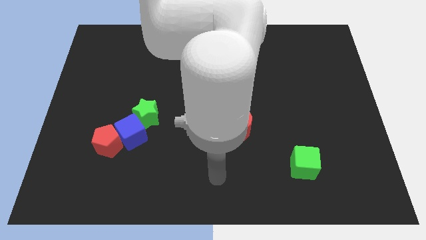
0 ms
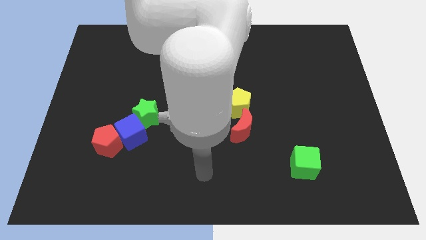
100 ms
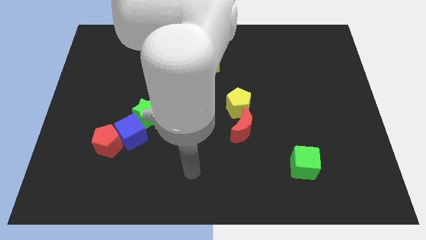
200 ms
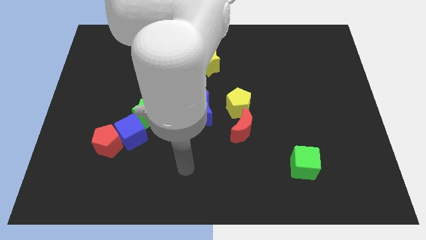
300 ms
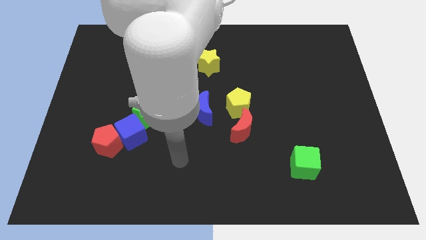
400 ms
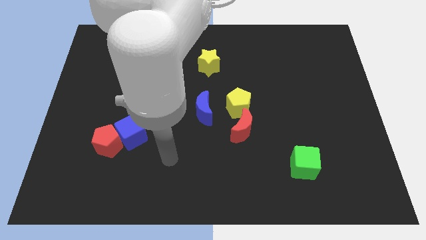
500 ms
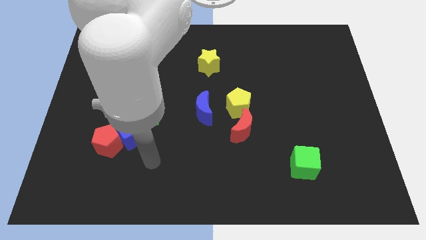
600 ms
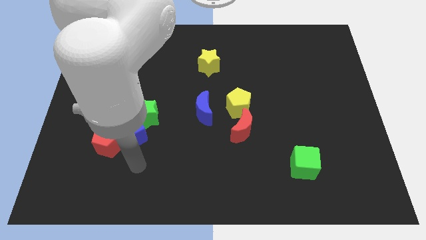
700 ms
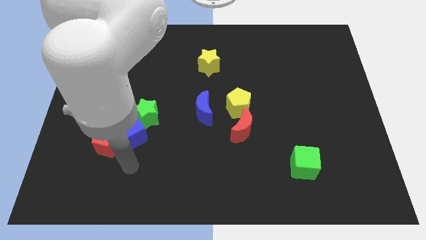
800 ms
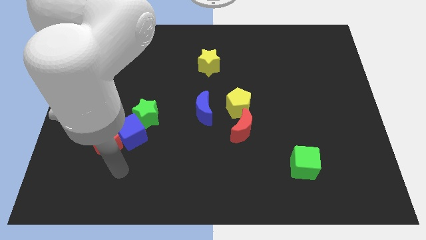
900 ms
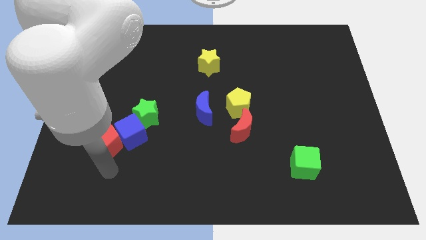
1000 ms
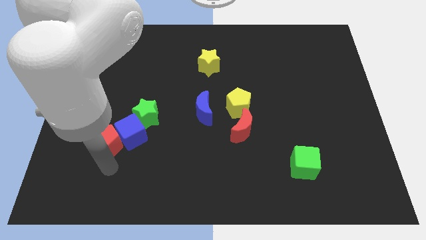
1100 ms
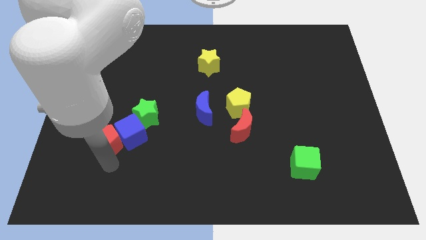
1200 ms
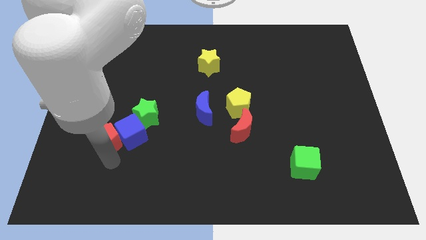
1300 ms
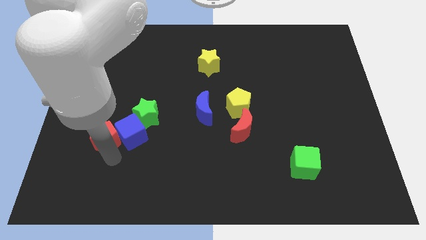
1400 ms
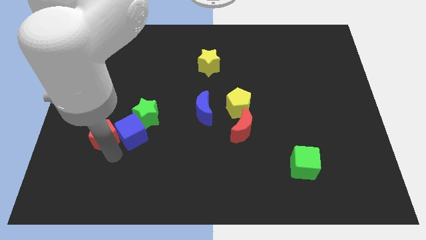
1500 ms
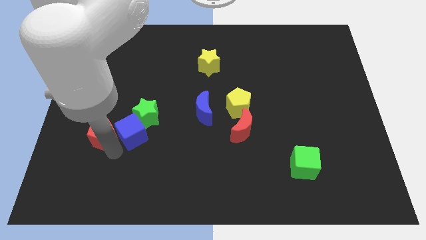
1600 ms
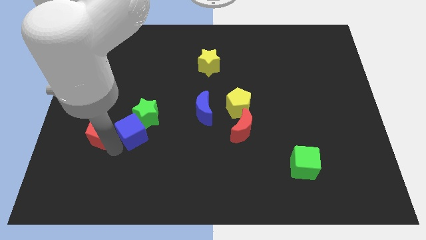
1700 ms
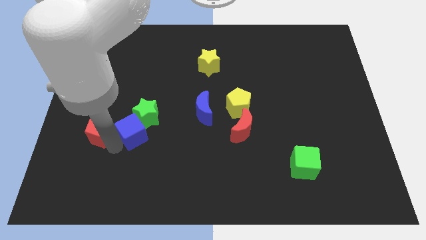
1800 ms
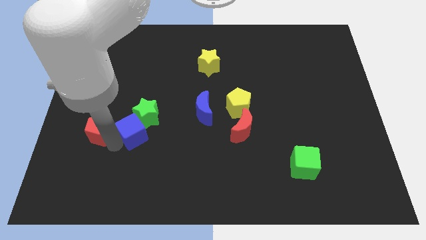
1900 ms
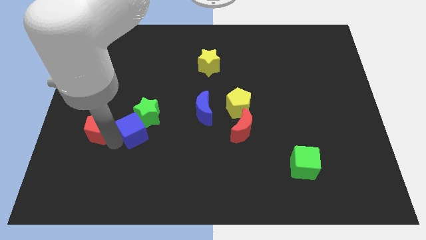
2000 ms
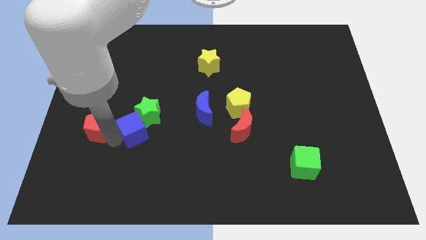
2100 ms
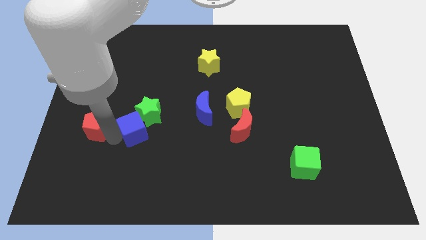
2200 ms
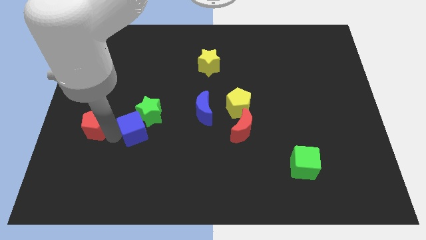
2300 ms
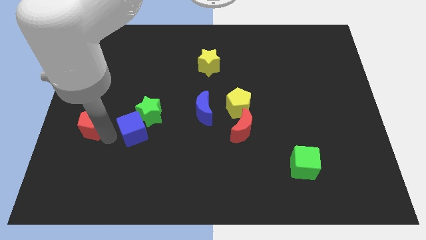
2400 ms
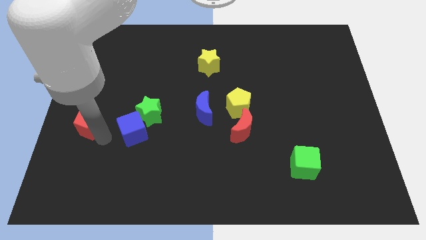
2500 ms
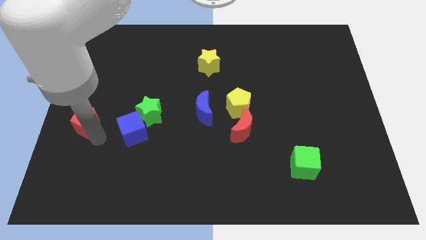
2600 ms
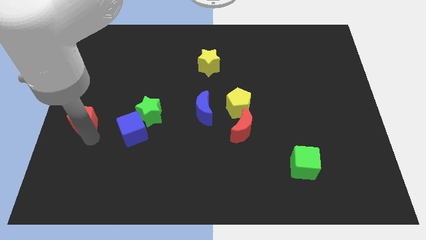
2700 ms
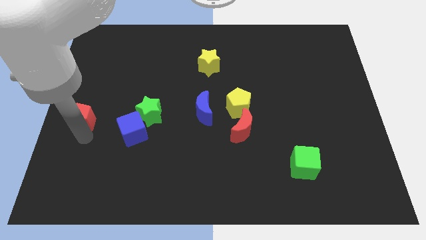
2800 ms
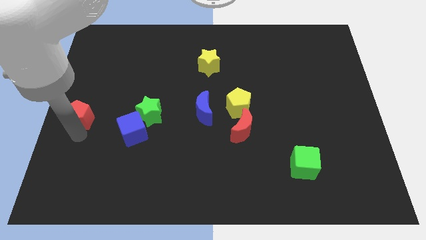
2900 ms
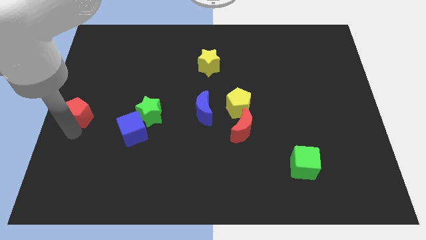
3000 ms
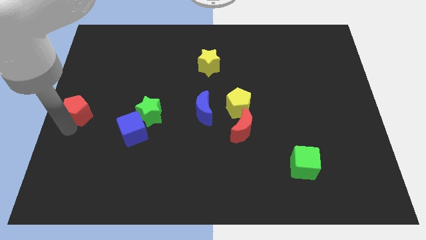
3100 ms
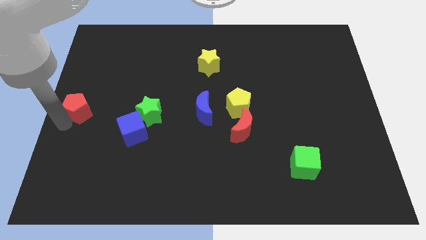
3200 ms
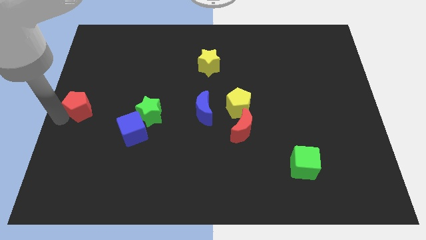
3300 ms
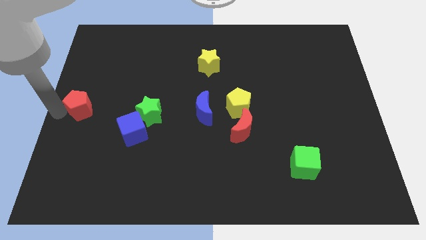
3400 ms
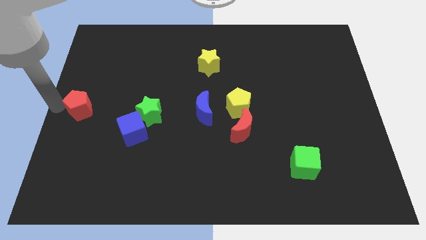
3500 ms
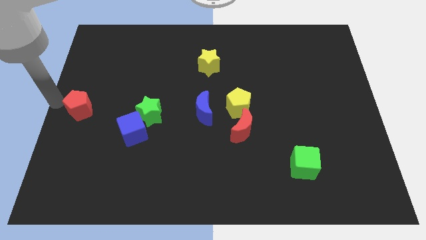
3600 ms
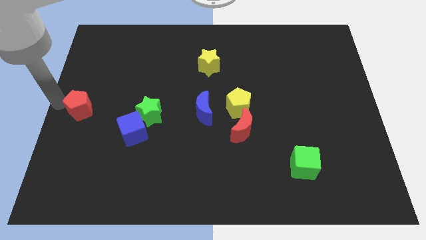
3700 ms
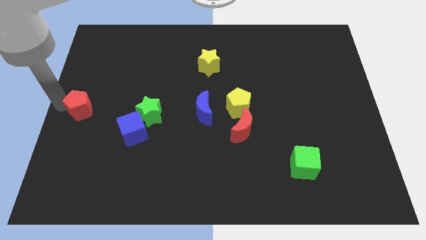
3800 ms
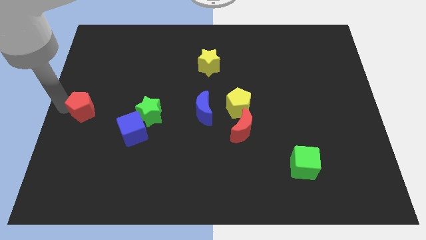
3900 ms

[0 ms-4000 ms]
move the red pentagon upwards a little

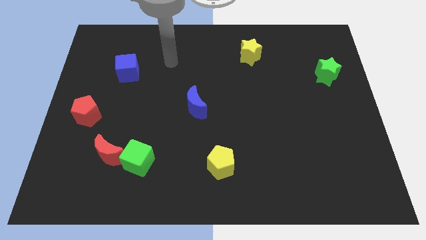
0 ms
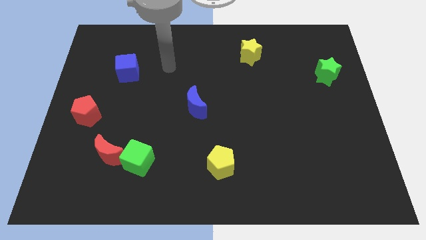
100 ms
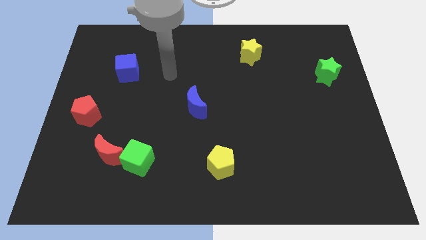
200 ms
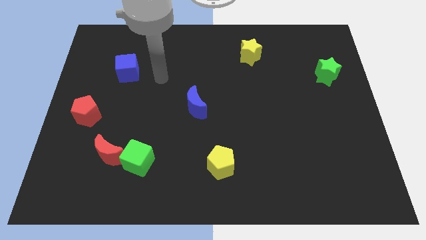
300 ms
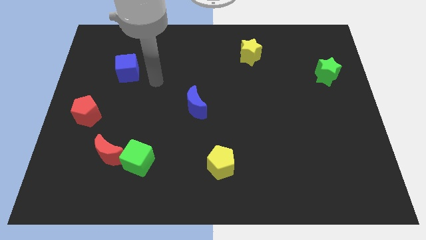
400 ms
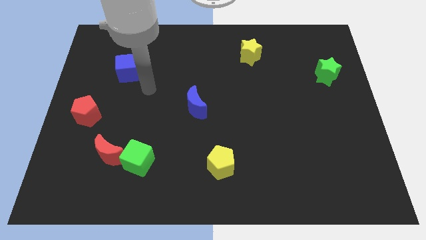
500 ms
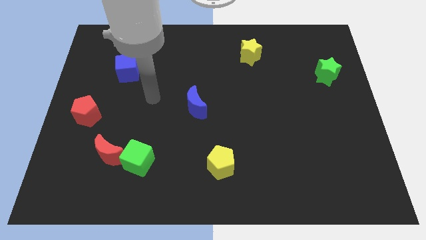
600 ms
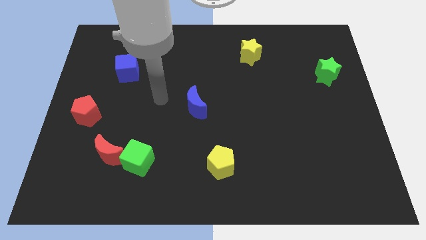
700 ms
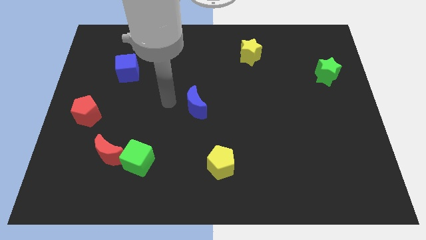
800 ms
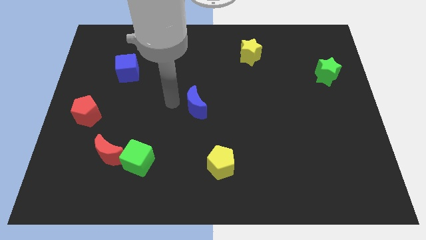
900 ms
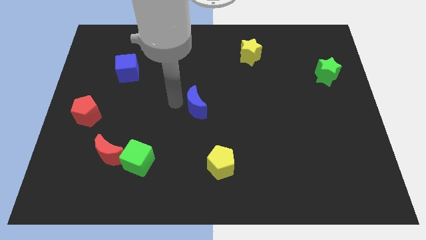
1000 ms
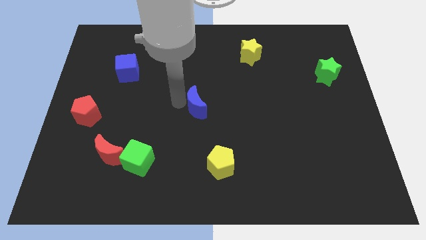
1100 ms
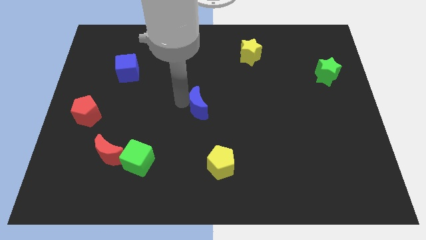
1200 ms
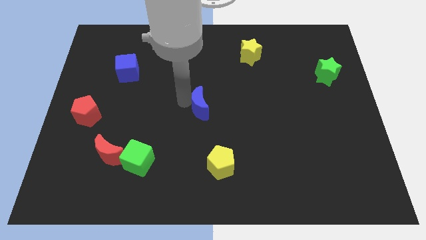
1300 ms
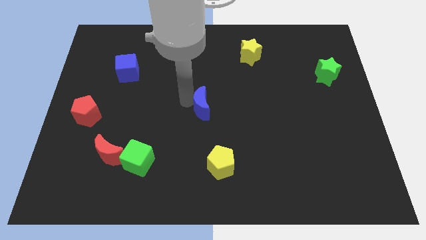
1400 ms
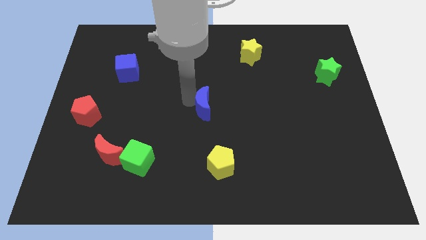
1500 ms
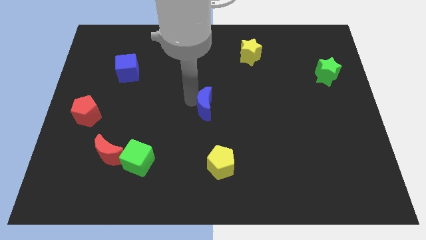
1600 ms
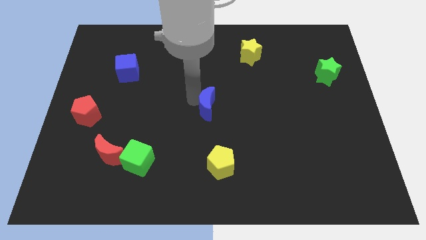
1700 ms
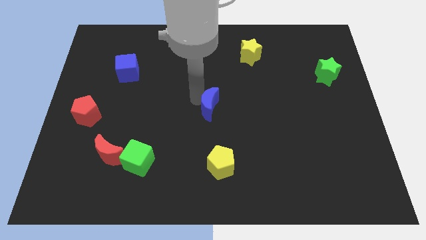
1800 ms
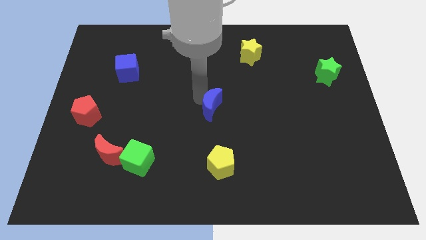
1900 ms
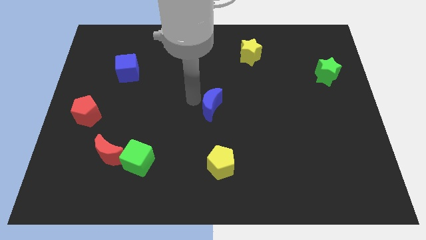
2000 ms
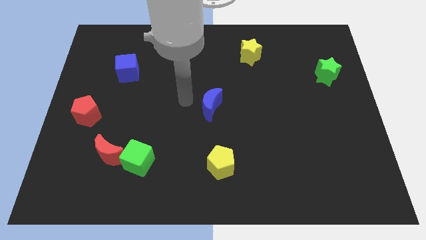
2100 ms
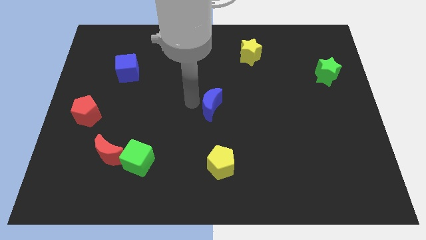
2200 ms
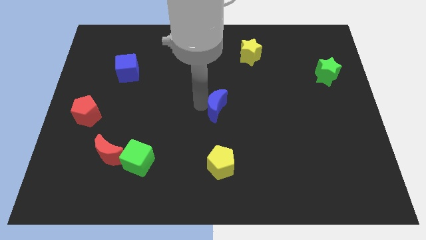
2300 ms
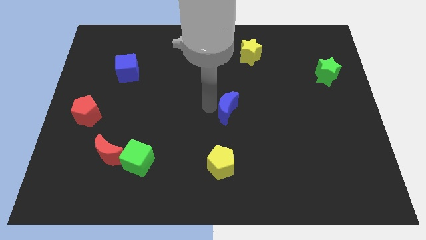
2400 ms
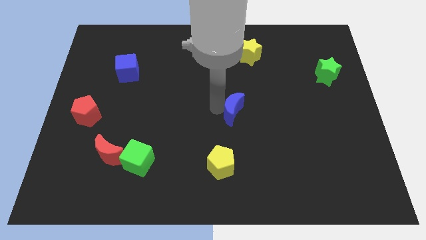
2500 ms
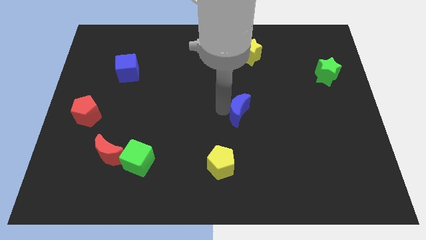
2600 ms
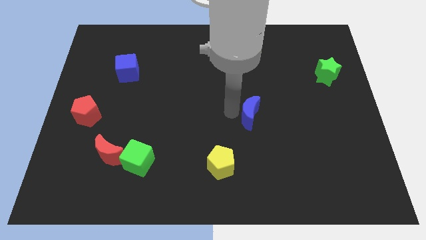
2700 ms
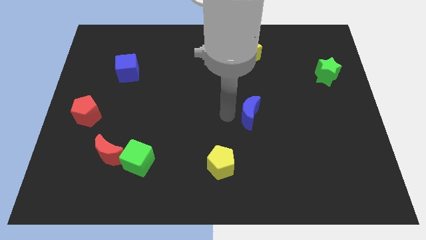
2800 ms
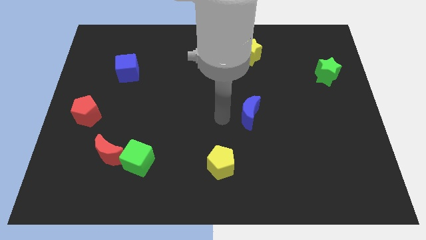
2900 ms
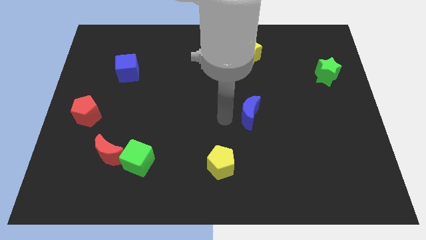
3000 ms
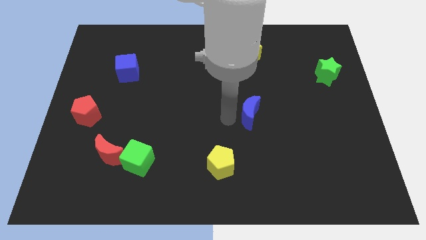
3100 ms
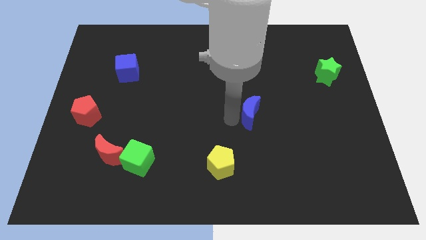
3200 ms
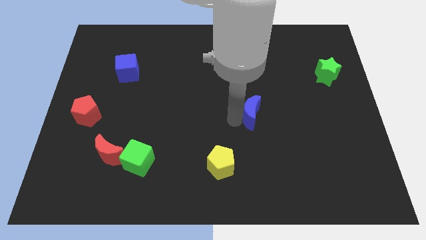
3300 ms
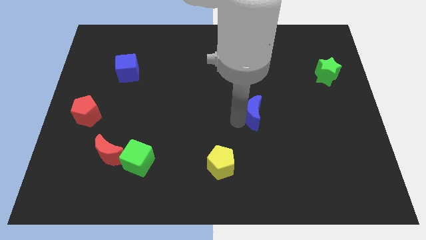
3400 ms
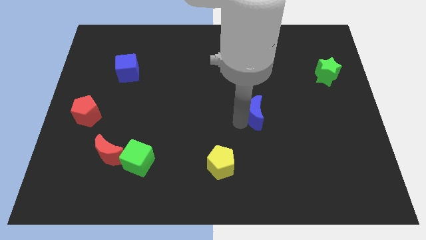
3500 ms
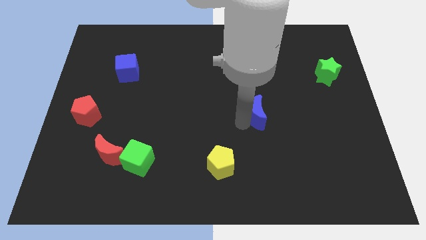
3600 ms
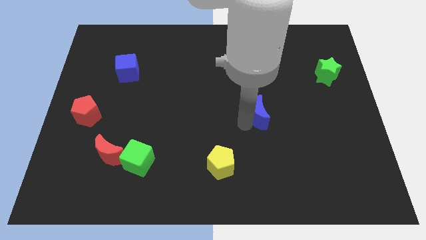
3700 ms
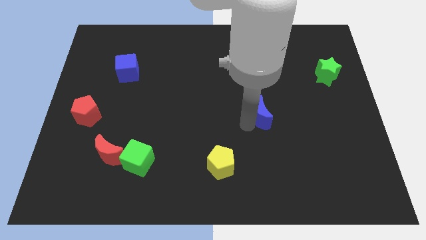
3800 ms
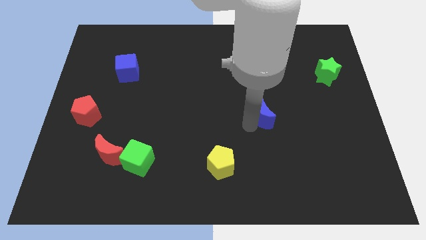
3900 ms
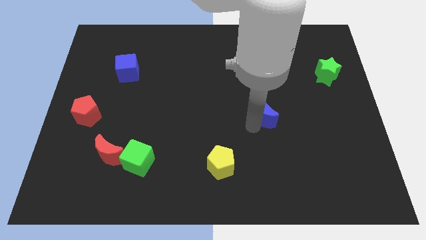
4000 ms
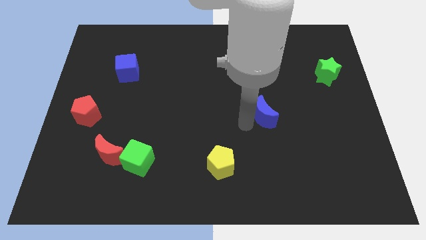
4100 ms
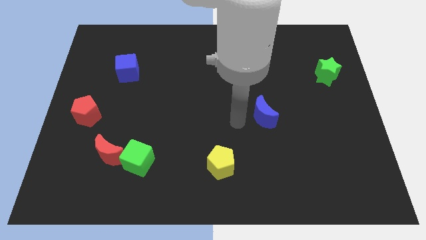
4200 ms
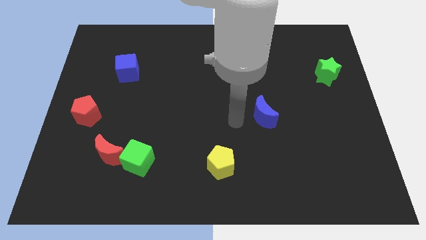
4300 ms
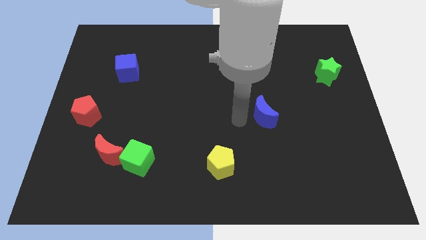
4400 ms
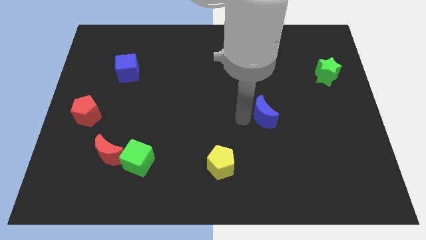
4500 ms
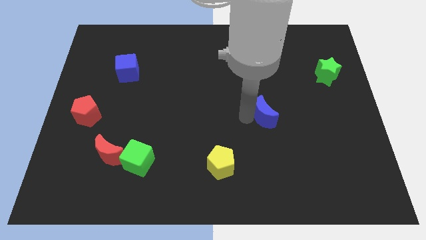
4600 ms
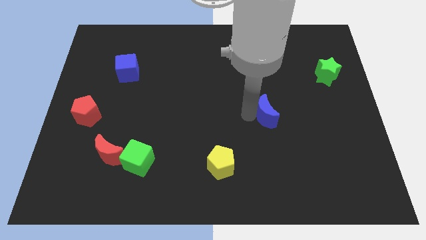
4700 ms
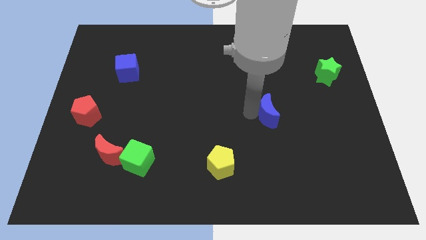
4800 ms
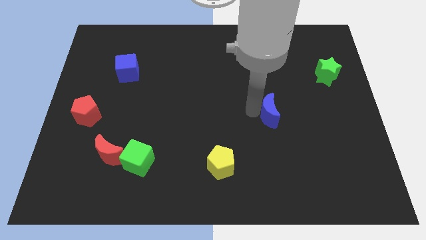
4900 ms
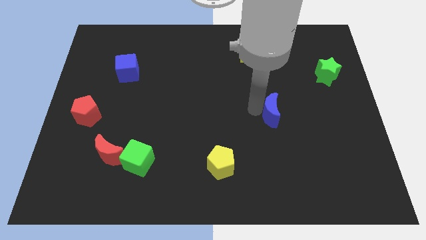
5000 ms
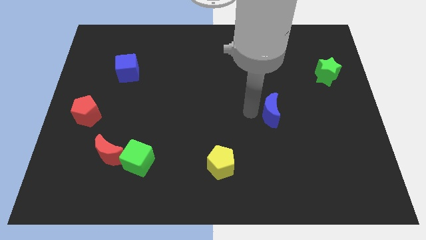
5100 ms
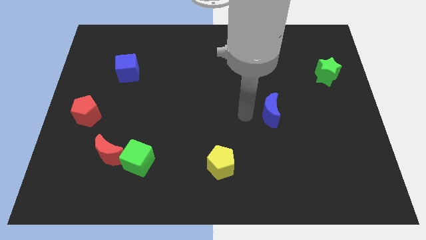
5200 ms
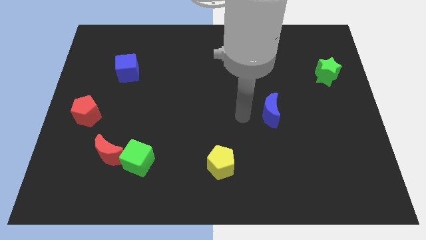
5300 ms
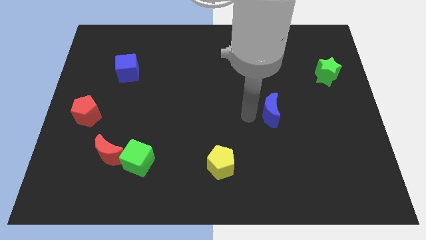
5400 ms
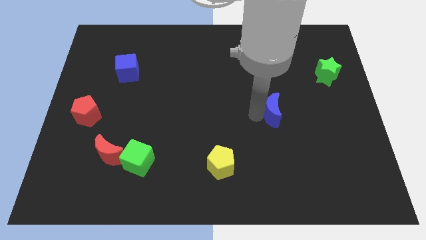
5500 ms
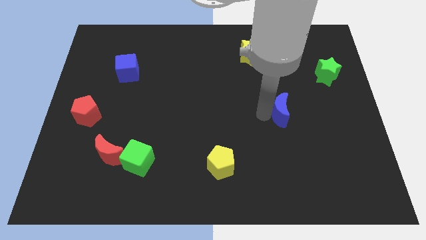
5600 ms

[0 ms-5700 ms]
slide the blue moon to the right
